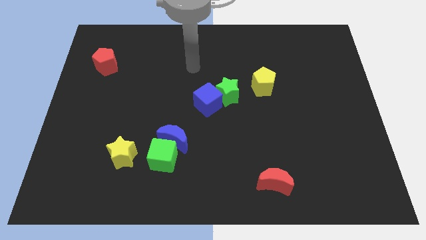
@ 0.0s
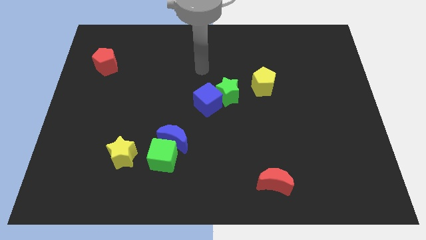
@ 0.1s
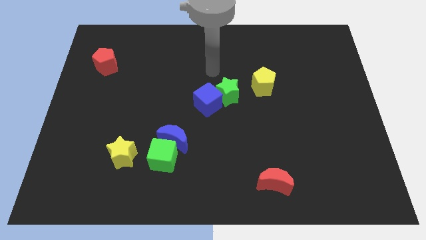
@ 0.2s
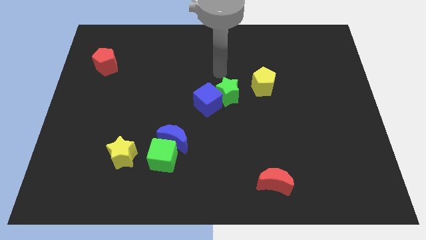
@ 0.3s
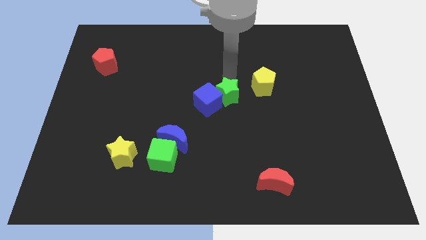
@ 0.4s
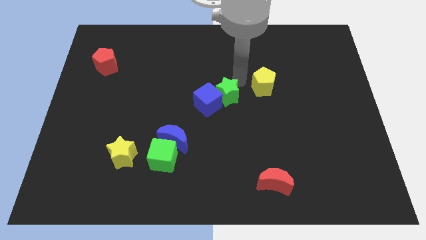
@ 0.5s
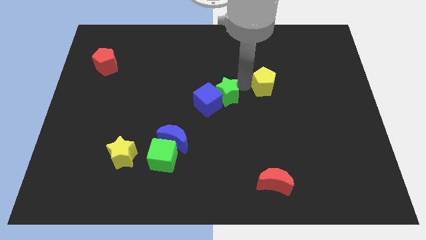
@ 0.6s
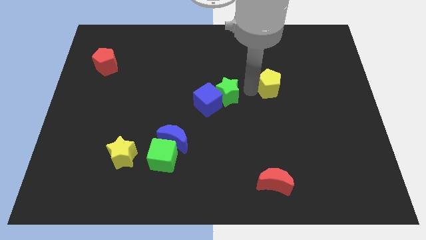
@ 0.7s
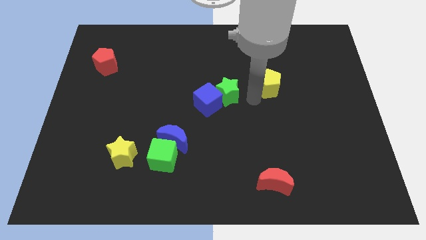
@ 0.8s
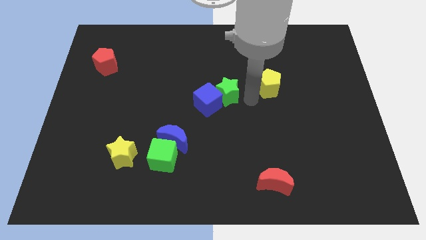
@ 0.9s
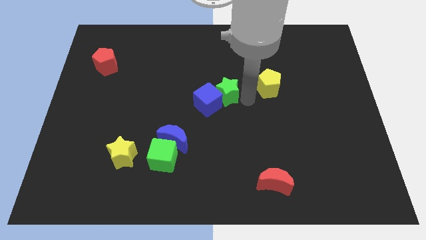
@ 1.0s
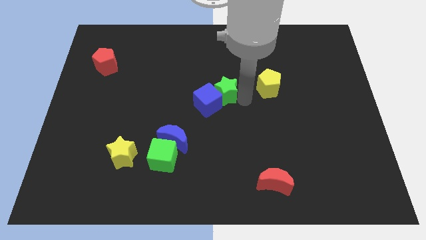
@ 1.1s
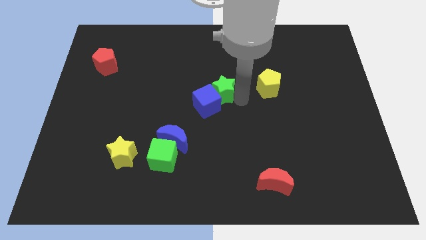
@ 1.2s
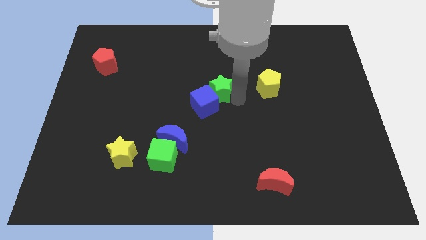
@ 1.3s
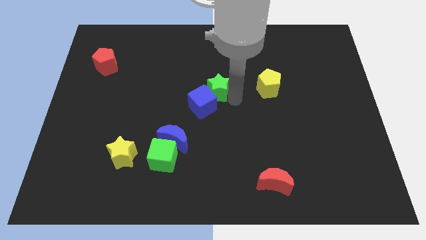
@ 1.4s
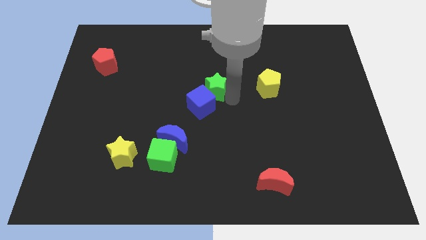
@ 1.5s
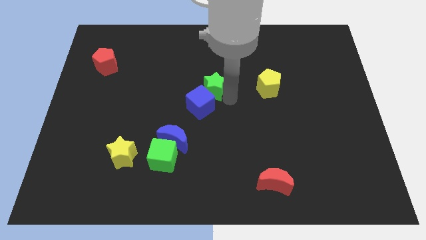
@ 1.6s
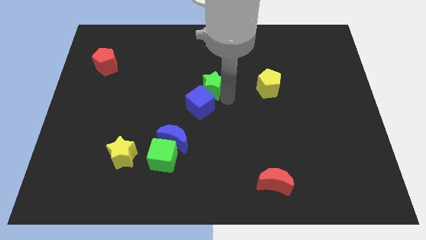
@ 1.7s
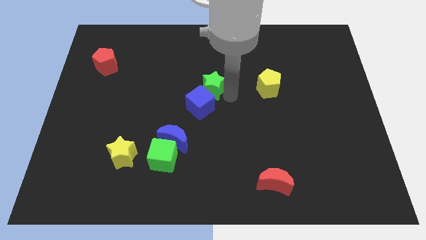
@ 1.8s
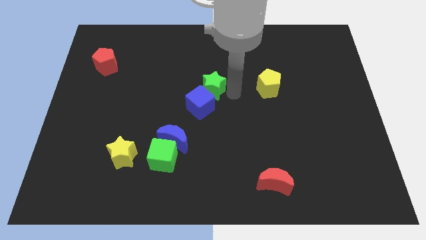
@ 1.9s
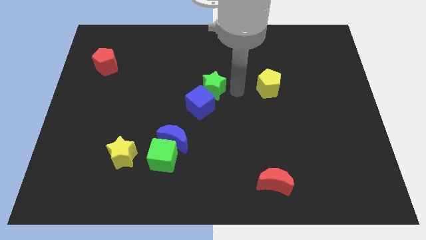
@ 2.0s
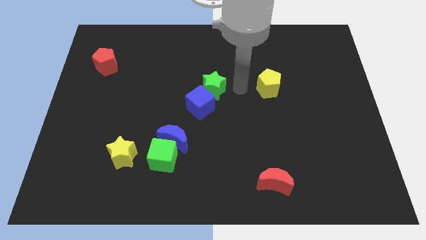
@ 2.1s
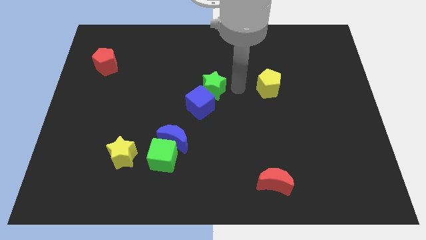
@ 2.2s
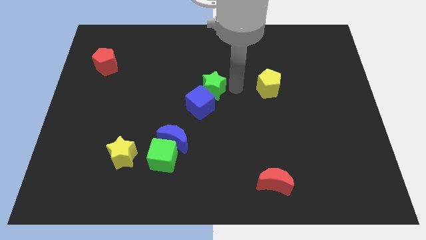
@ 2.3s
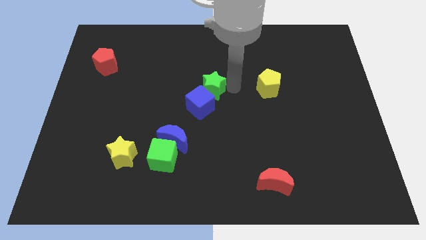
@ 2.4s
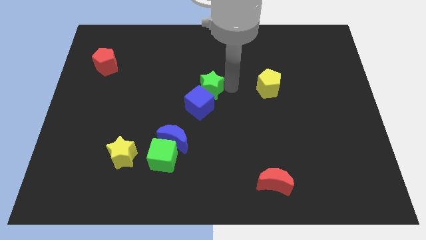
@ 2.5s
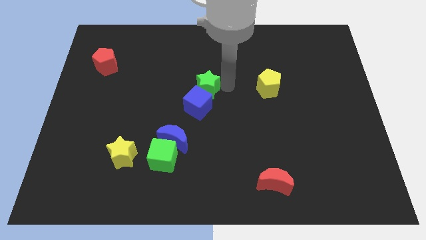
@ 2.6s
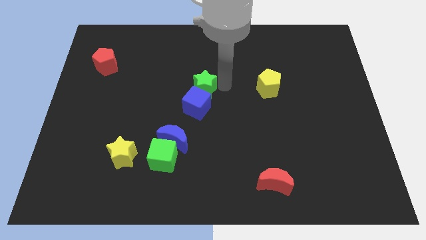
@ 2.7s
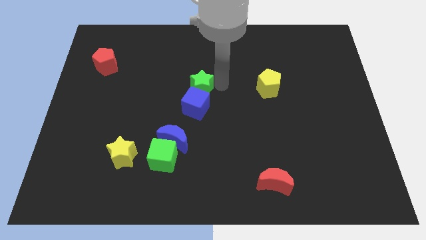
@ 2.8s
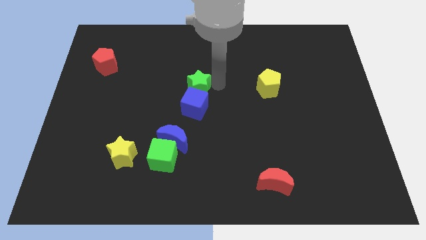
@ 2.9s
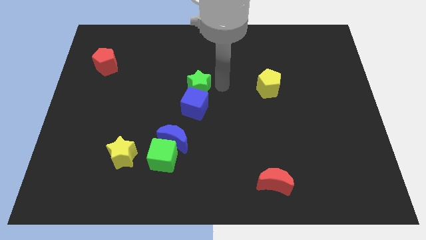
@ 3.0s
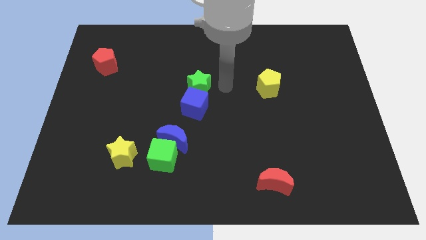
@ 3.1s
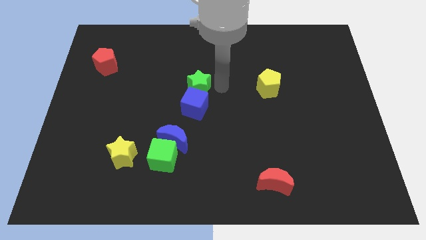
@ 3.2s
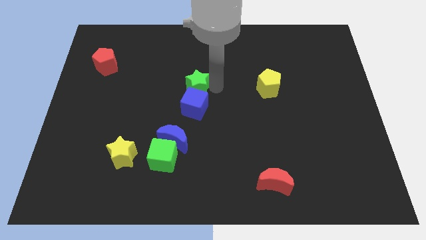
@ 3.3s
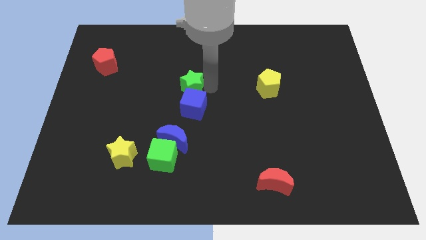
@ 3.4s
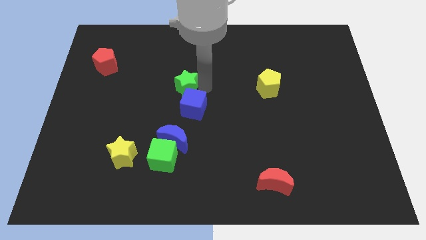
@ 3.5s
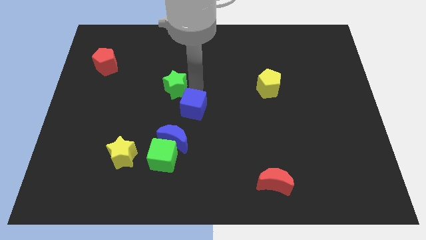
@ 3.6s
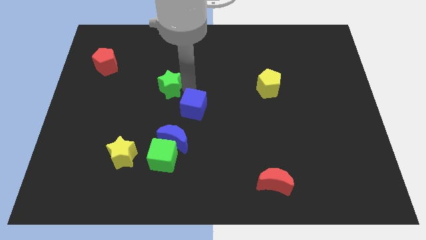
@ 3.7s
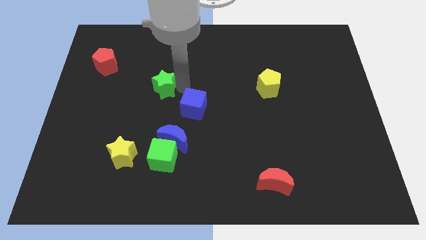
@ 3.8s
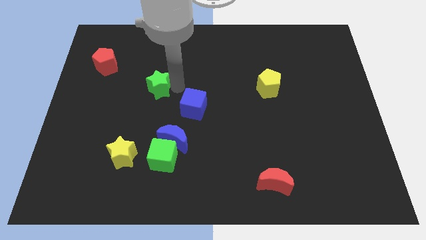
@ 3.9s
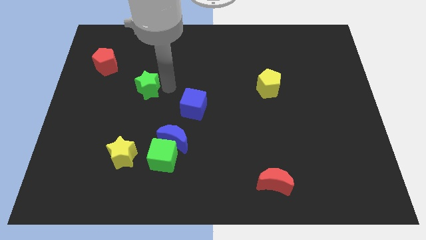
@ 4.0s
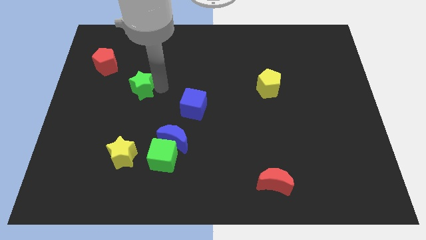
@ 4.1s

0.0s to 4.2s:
move the green star to the left

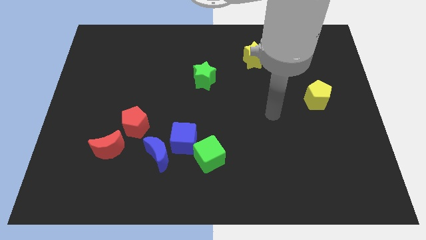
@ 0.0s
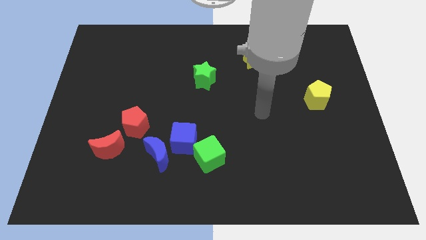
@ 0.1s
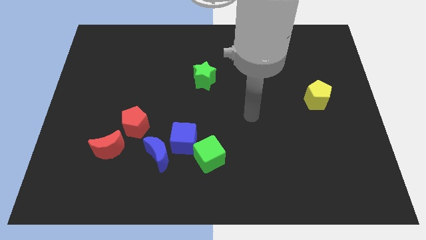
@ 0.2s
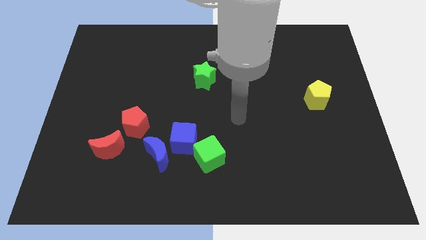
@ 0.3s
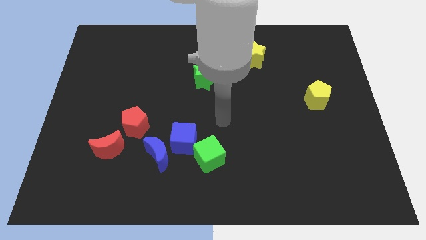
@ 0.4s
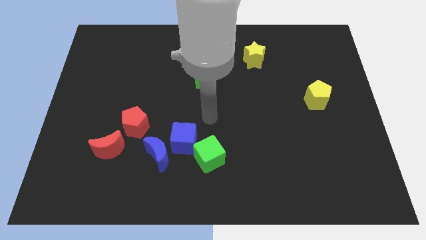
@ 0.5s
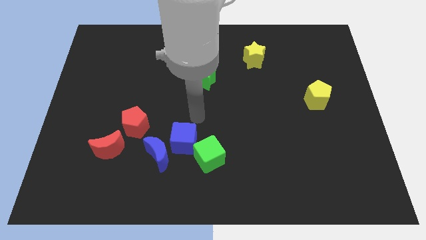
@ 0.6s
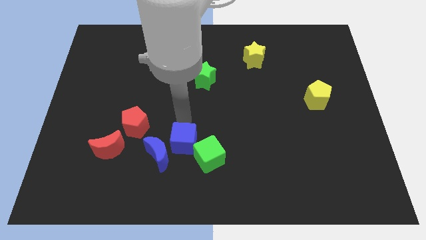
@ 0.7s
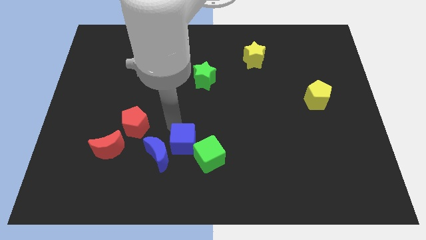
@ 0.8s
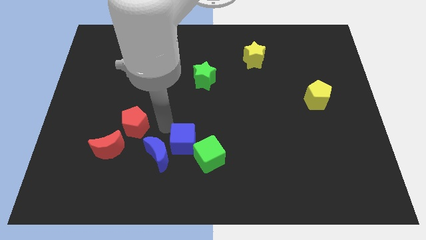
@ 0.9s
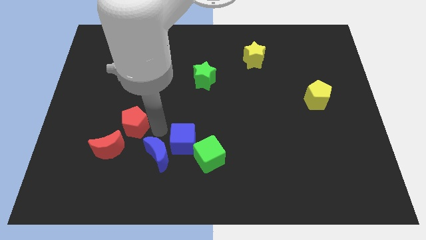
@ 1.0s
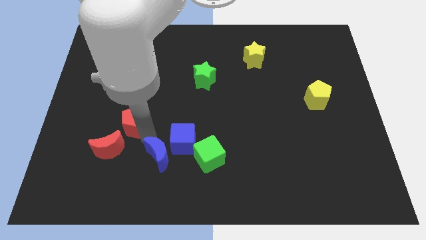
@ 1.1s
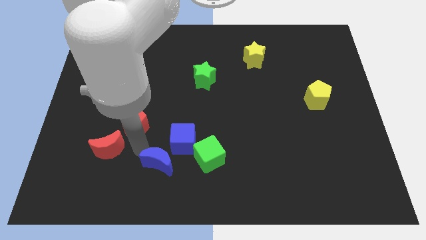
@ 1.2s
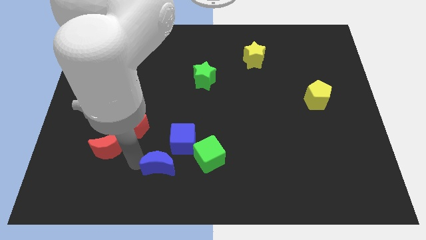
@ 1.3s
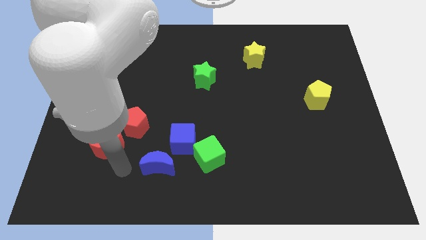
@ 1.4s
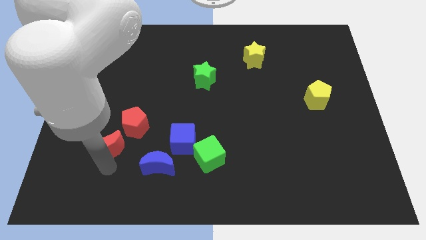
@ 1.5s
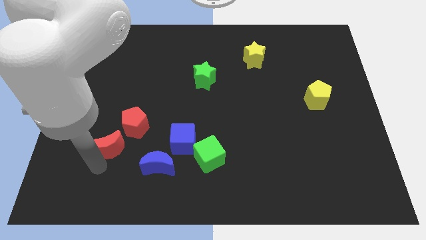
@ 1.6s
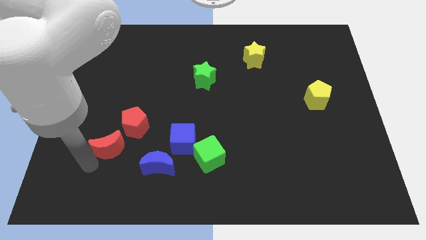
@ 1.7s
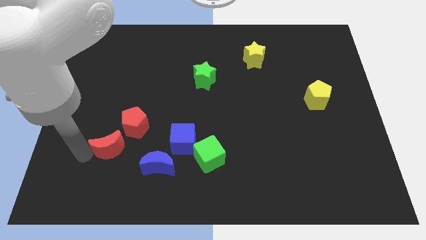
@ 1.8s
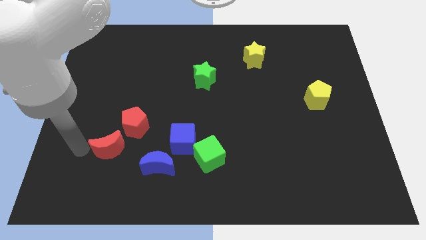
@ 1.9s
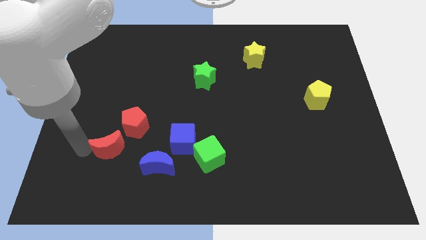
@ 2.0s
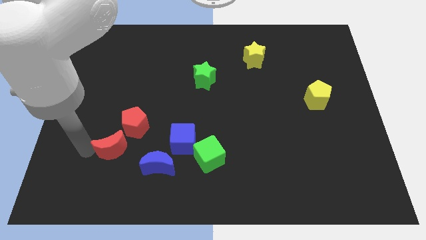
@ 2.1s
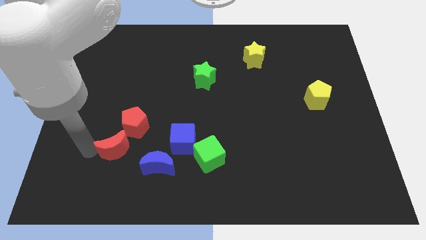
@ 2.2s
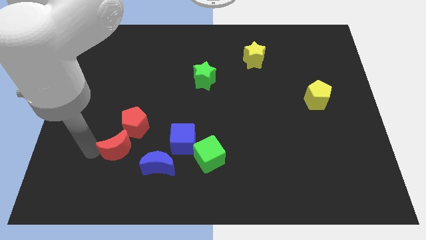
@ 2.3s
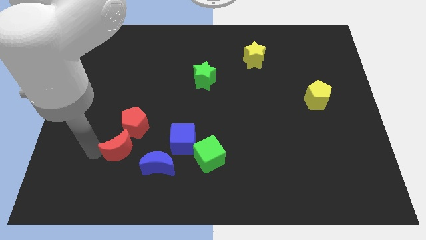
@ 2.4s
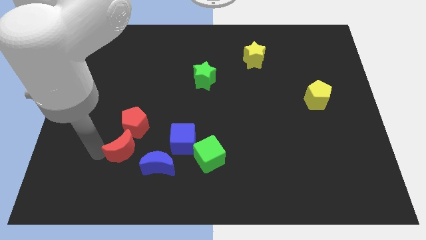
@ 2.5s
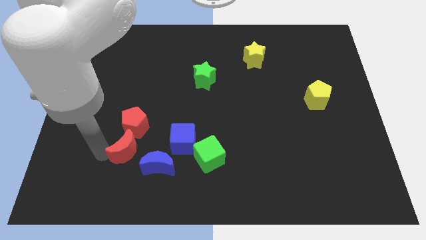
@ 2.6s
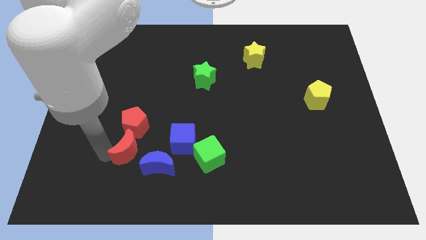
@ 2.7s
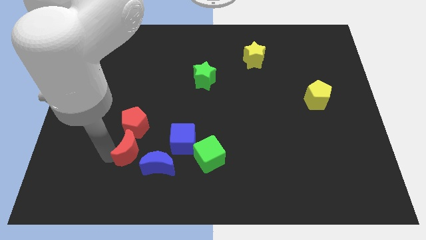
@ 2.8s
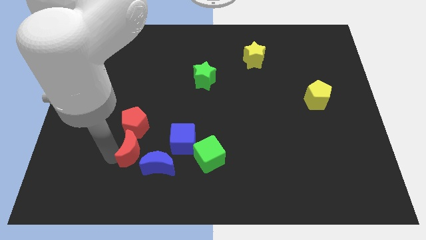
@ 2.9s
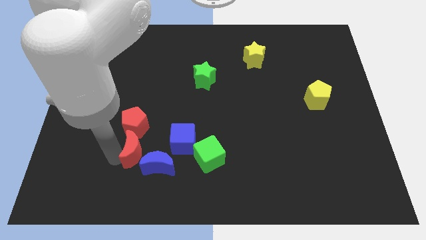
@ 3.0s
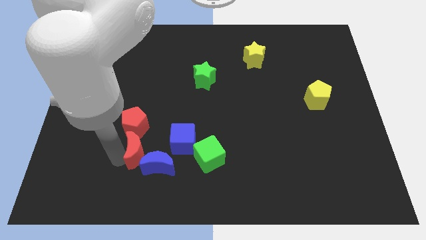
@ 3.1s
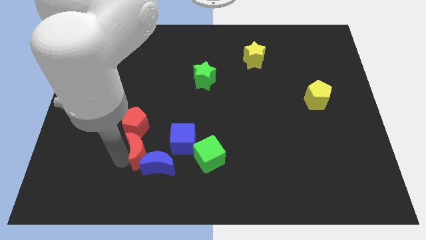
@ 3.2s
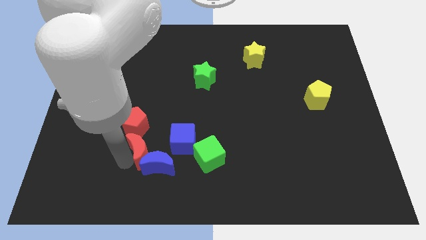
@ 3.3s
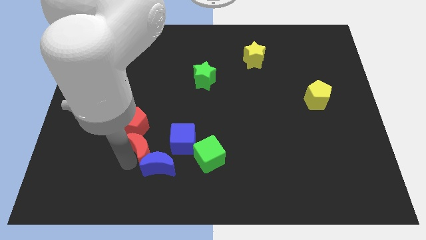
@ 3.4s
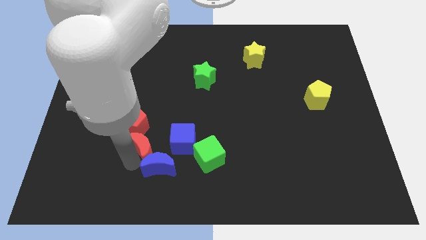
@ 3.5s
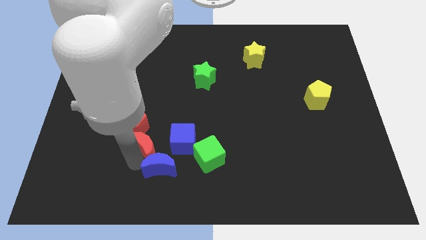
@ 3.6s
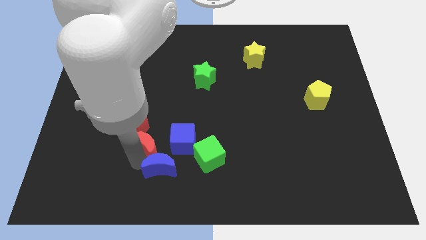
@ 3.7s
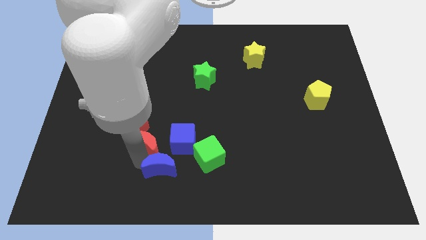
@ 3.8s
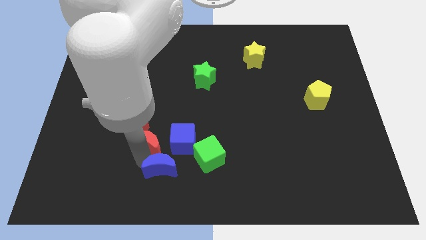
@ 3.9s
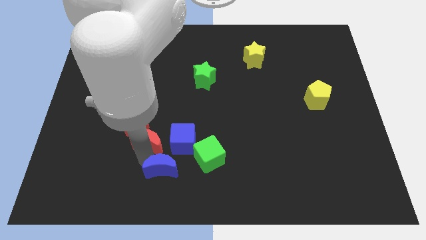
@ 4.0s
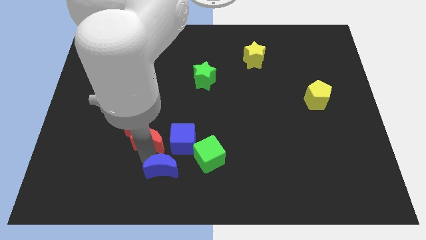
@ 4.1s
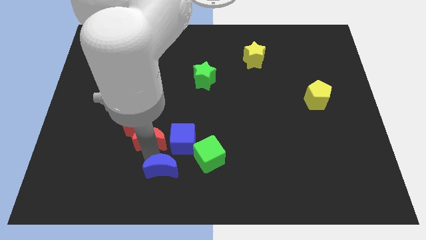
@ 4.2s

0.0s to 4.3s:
move the red moon up and then right a bit
